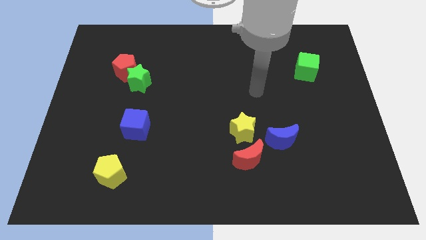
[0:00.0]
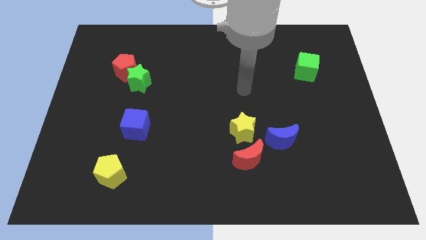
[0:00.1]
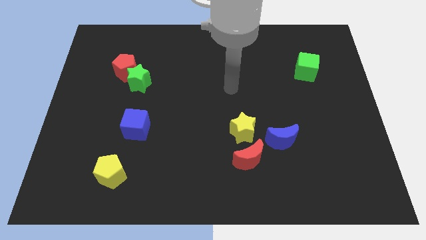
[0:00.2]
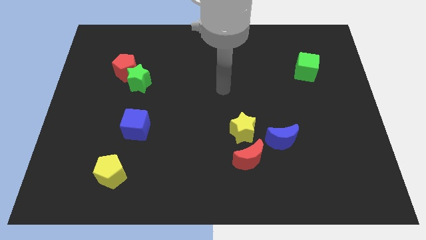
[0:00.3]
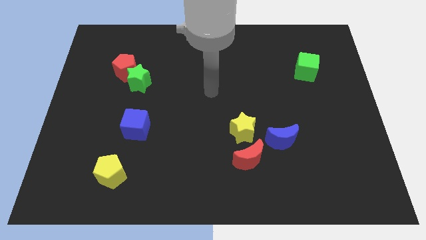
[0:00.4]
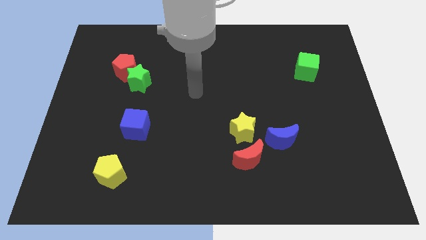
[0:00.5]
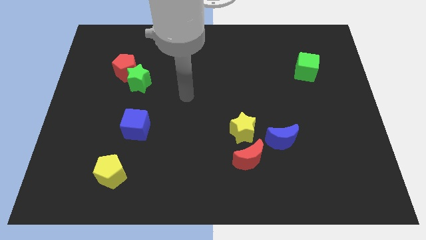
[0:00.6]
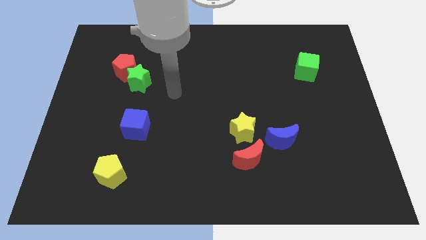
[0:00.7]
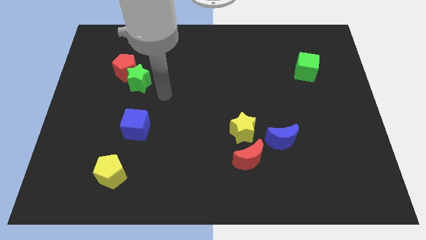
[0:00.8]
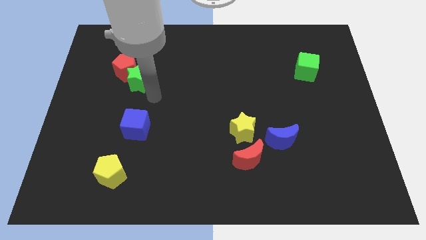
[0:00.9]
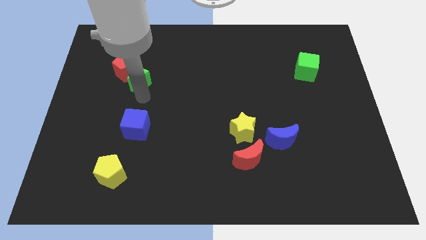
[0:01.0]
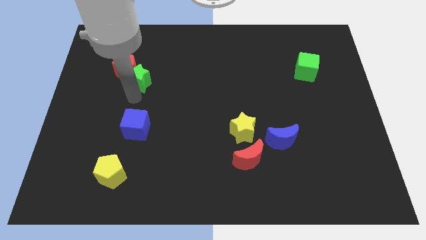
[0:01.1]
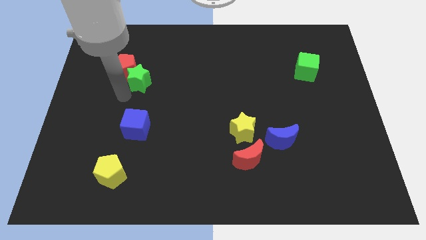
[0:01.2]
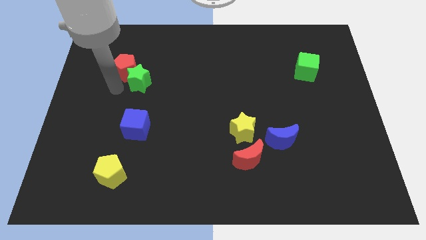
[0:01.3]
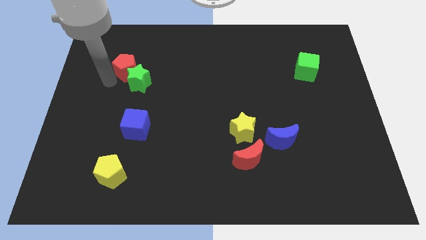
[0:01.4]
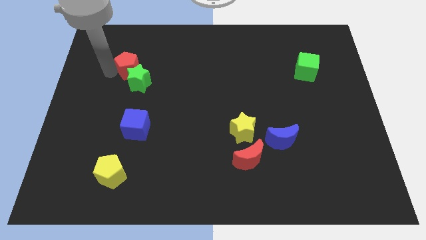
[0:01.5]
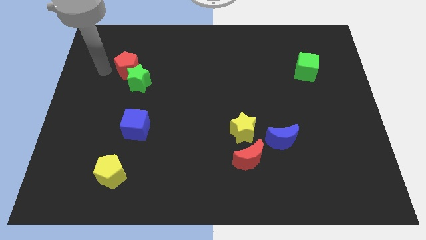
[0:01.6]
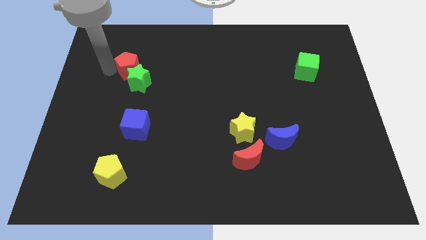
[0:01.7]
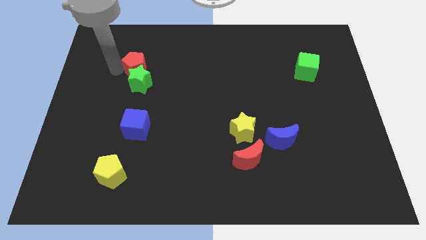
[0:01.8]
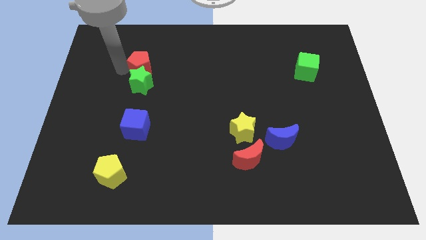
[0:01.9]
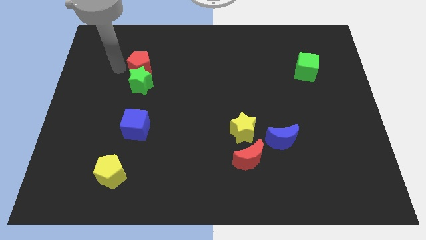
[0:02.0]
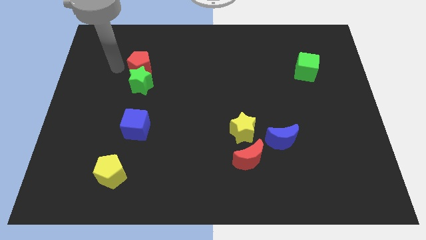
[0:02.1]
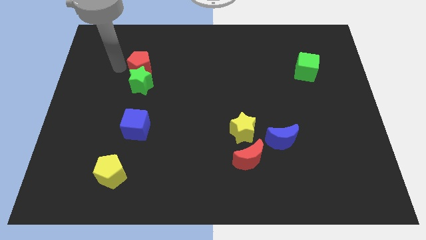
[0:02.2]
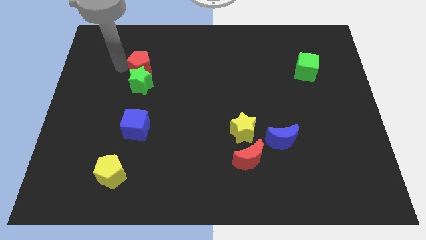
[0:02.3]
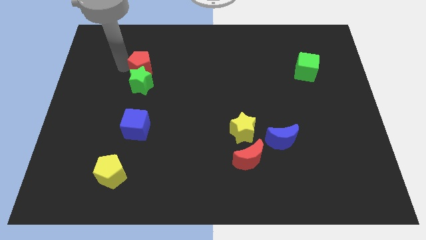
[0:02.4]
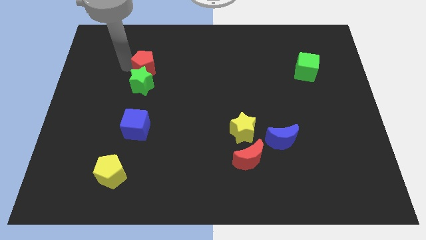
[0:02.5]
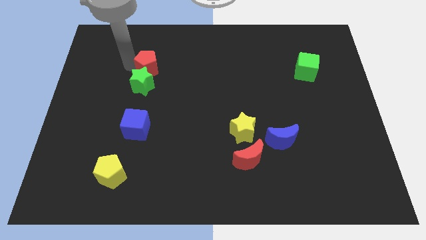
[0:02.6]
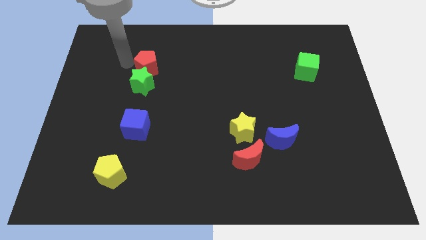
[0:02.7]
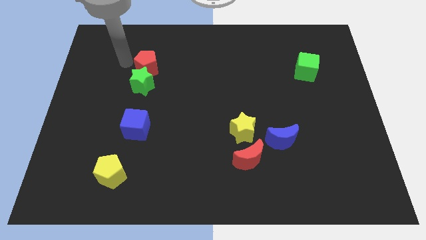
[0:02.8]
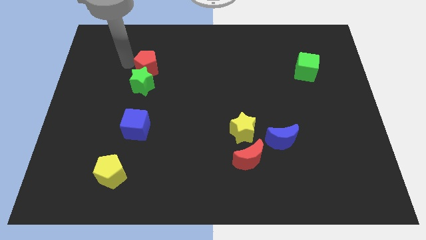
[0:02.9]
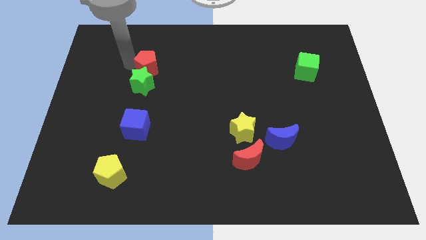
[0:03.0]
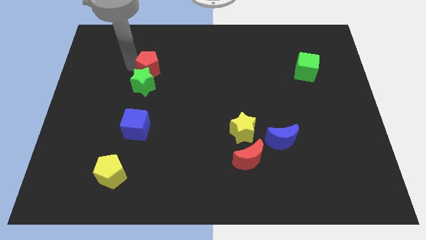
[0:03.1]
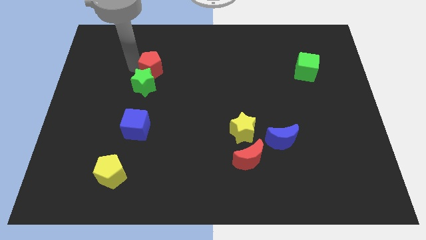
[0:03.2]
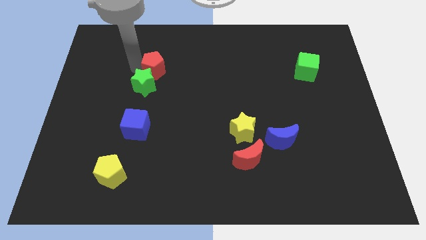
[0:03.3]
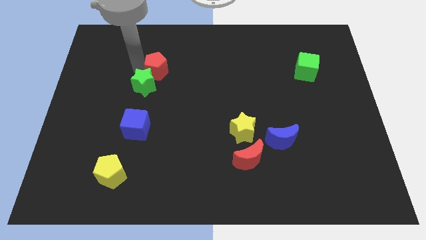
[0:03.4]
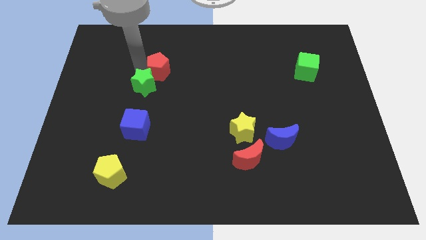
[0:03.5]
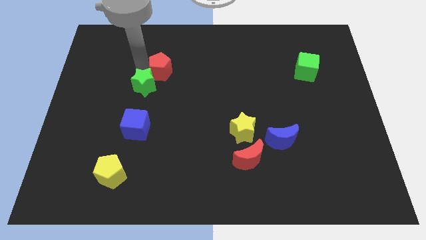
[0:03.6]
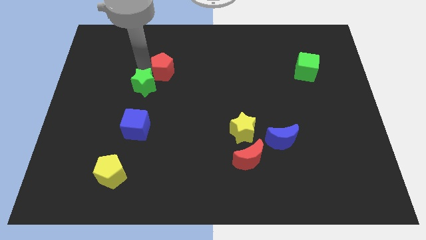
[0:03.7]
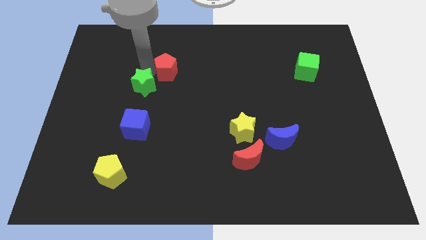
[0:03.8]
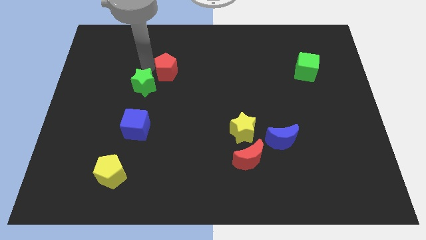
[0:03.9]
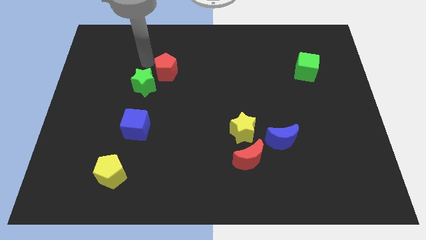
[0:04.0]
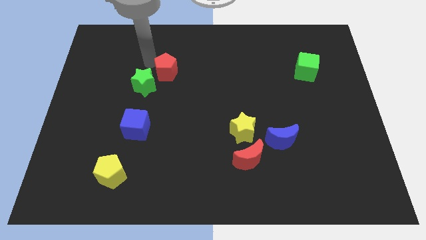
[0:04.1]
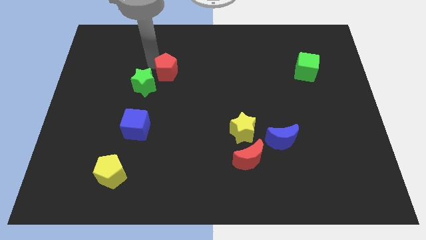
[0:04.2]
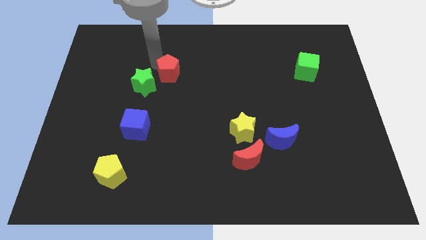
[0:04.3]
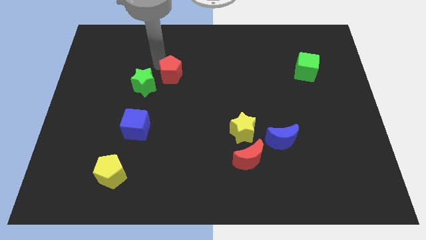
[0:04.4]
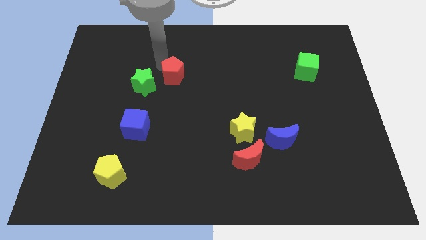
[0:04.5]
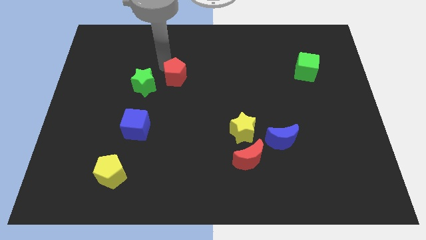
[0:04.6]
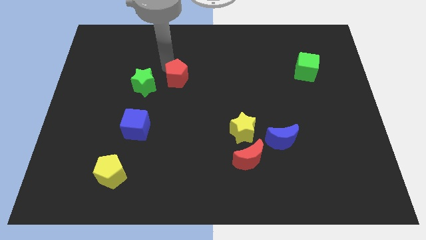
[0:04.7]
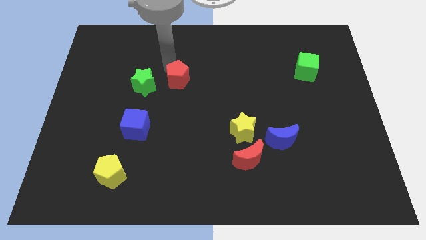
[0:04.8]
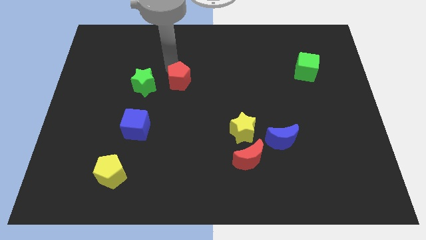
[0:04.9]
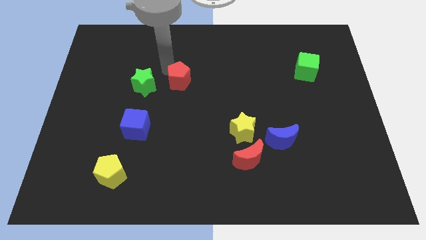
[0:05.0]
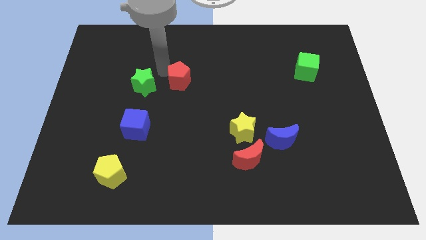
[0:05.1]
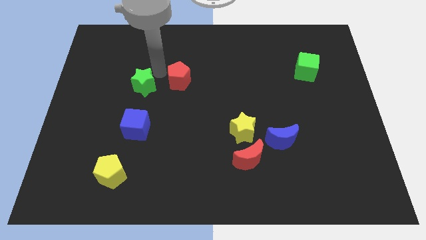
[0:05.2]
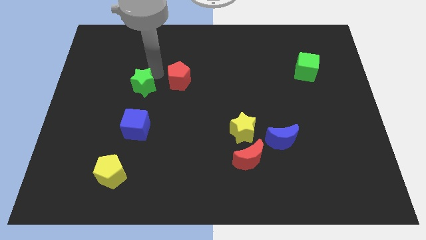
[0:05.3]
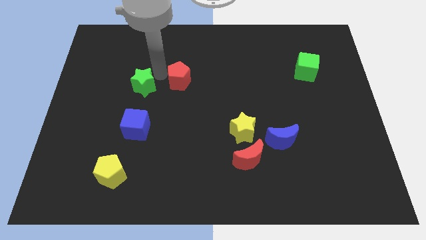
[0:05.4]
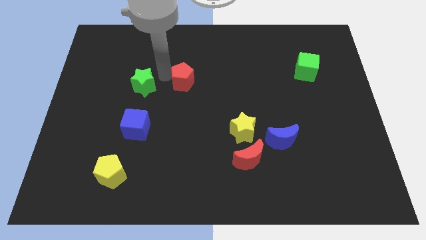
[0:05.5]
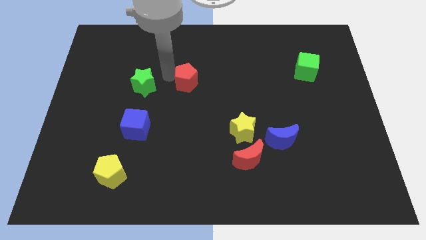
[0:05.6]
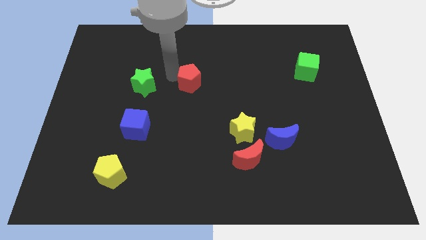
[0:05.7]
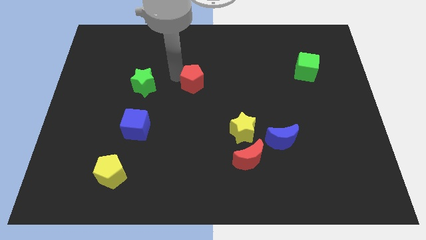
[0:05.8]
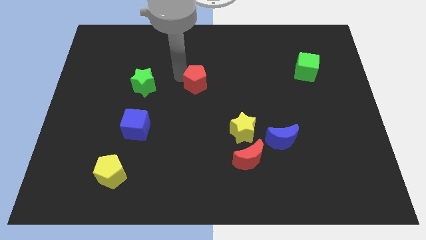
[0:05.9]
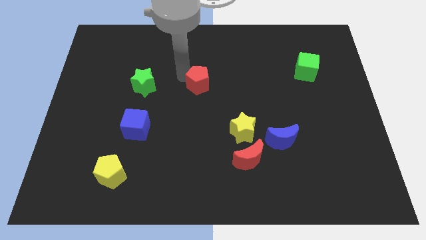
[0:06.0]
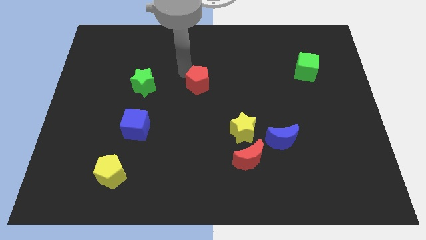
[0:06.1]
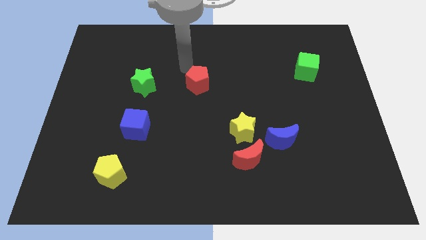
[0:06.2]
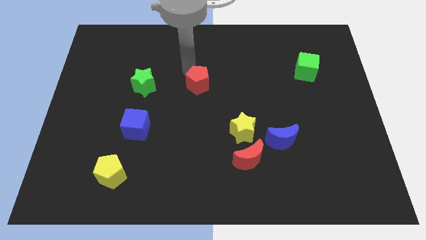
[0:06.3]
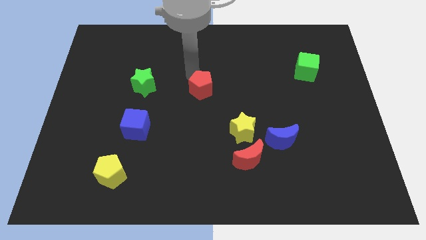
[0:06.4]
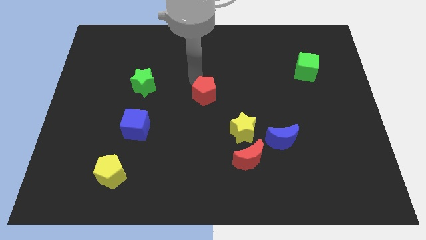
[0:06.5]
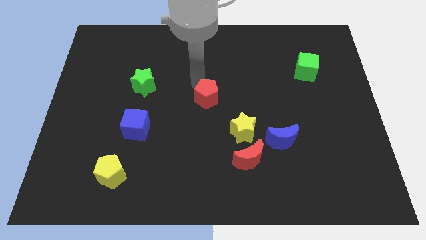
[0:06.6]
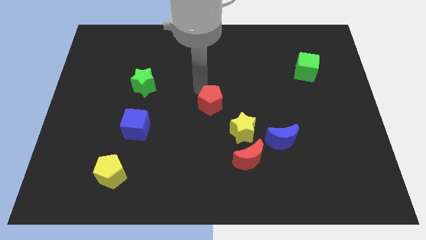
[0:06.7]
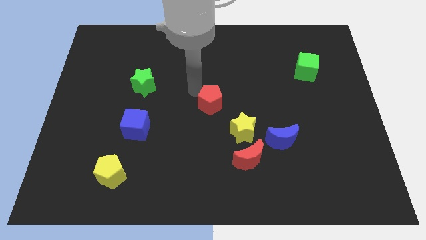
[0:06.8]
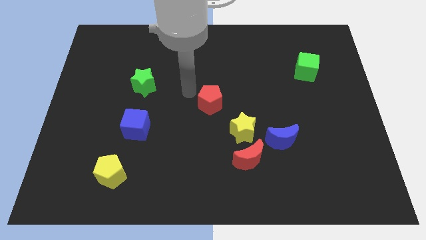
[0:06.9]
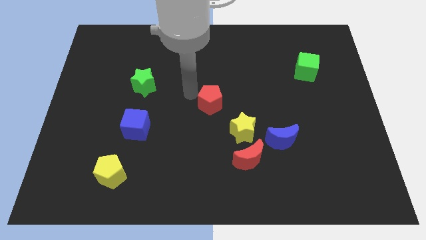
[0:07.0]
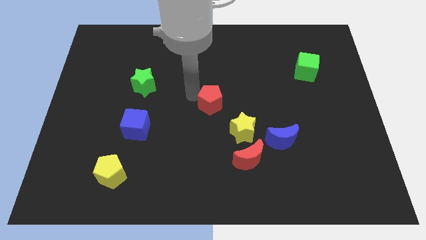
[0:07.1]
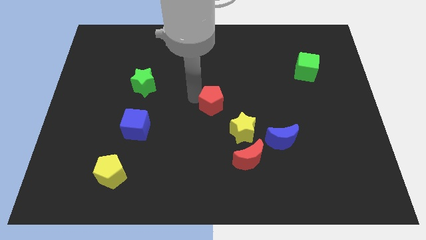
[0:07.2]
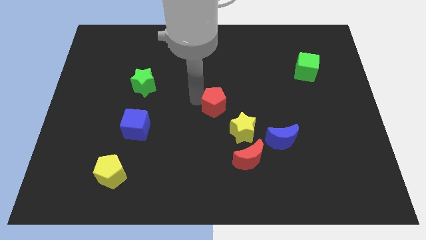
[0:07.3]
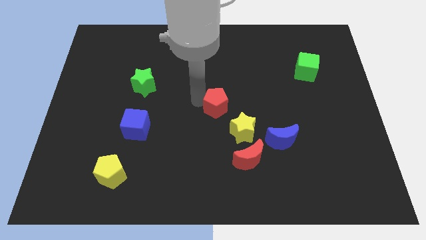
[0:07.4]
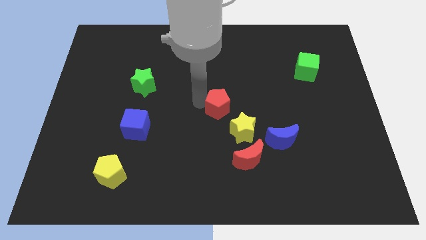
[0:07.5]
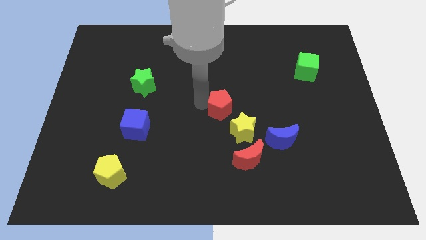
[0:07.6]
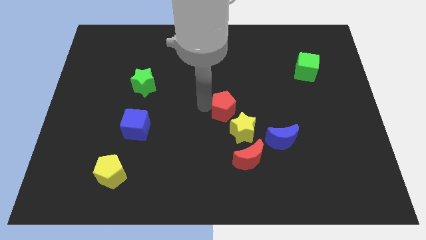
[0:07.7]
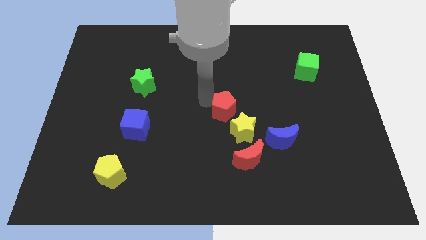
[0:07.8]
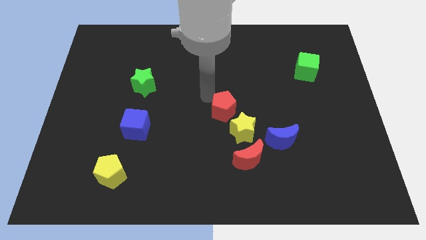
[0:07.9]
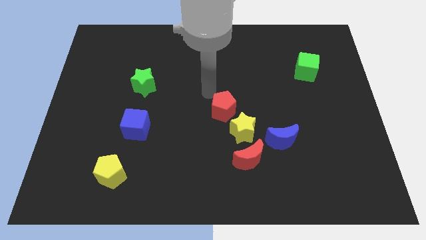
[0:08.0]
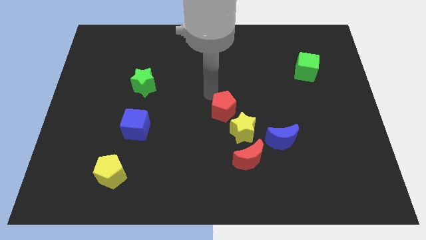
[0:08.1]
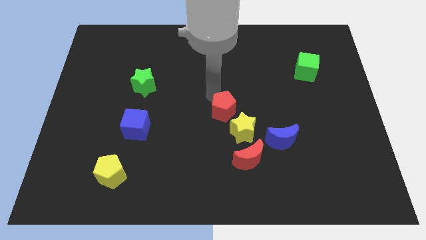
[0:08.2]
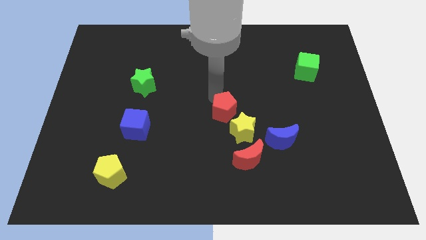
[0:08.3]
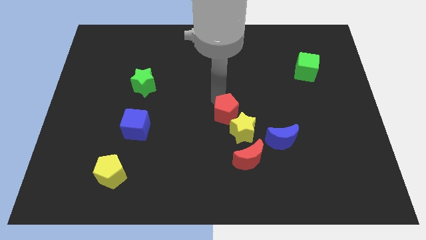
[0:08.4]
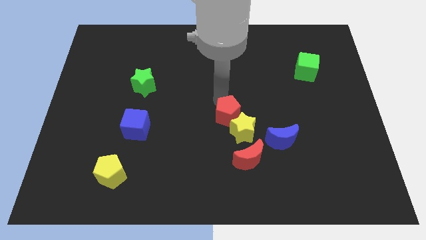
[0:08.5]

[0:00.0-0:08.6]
slide the red pentagon to the yellow star
